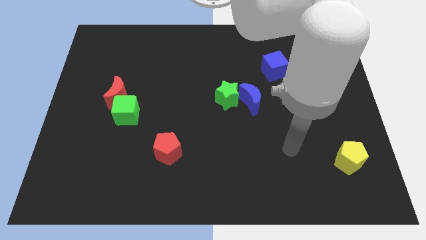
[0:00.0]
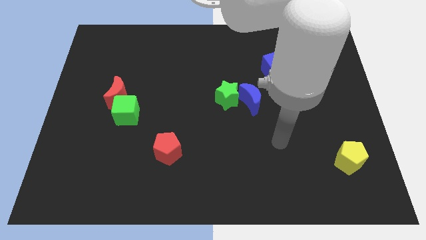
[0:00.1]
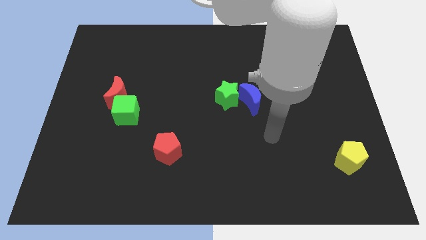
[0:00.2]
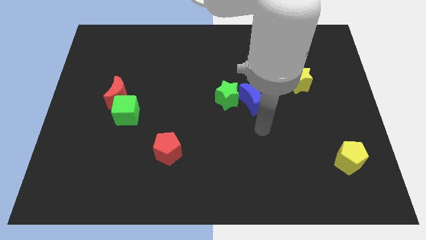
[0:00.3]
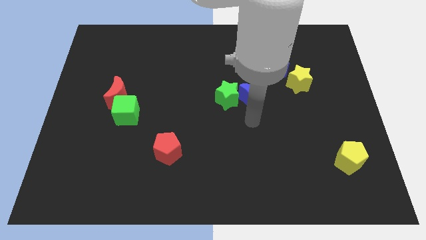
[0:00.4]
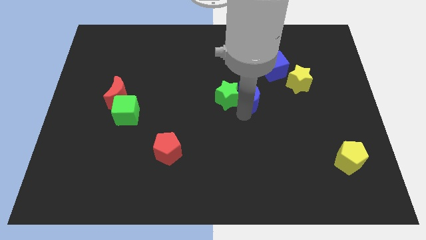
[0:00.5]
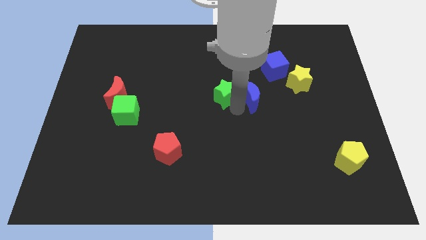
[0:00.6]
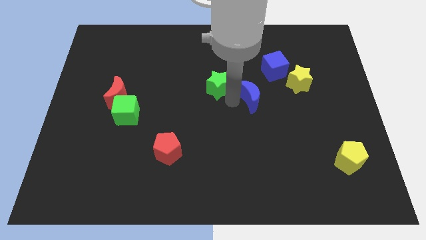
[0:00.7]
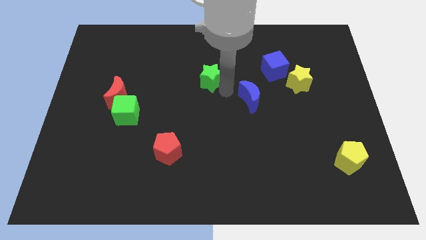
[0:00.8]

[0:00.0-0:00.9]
separate the blue moon from the green star

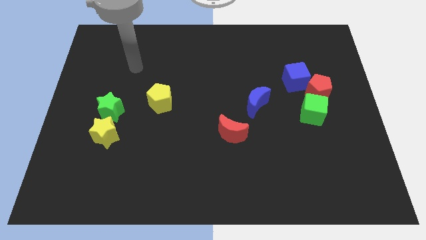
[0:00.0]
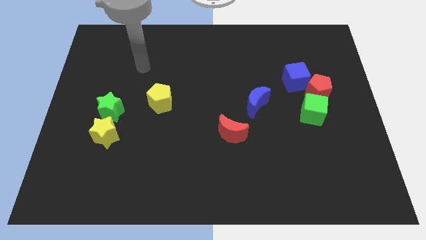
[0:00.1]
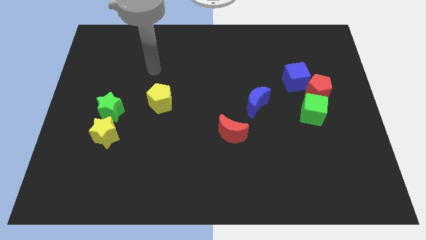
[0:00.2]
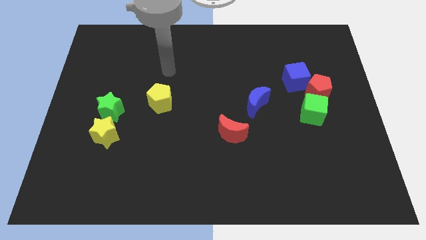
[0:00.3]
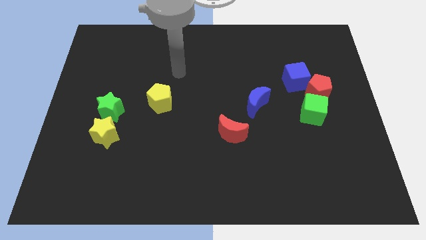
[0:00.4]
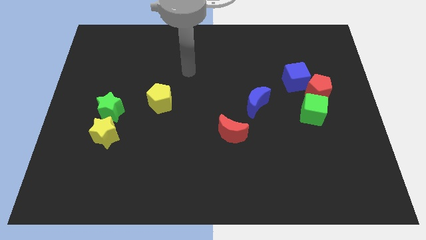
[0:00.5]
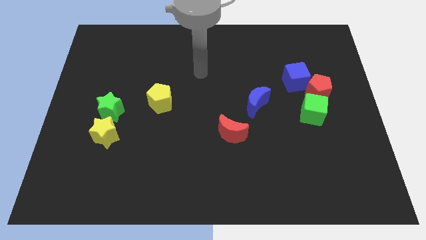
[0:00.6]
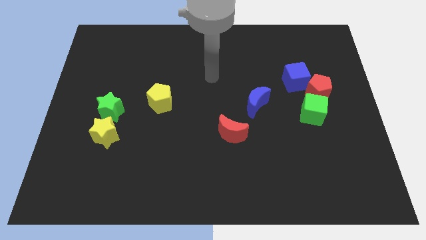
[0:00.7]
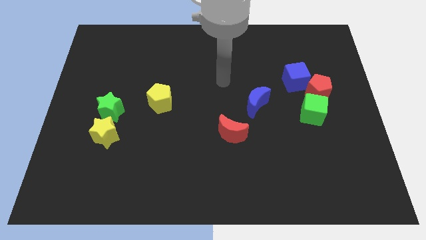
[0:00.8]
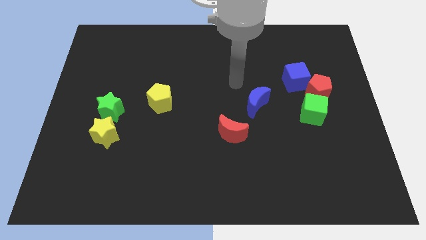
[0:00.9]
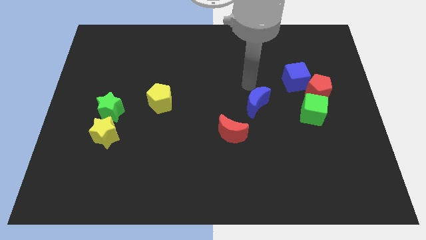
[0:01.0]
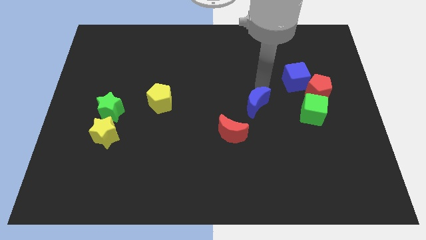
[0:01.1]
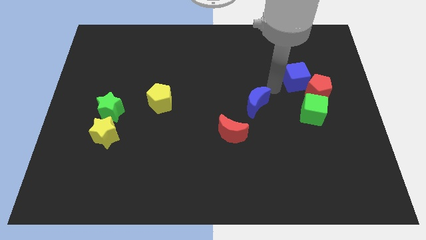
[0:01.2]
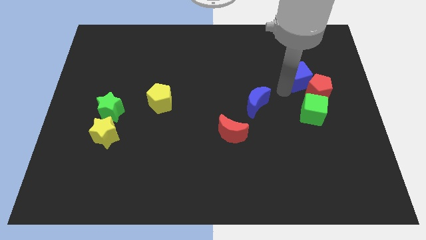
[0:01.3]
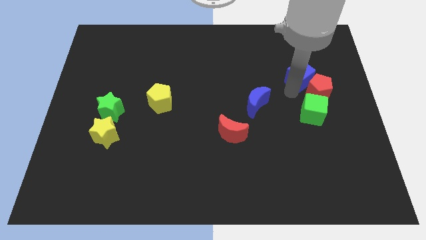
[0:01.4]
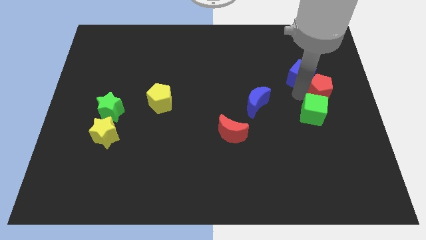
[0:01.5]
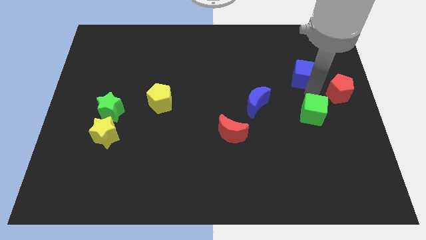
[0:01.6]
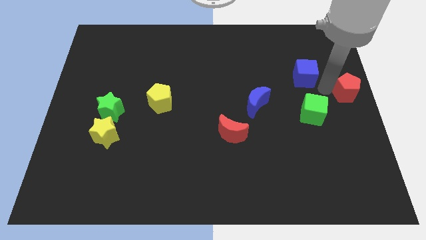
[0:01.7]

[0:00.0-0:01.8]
move the blue cube away from the red pentagon

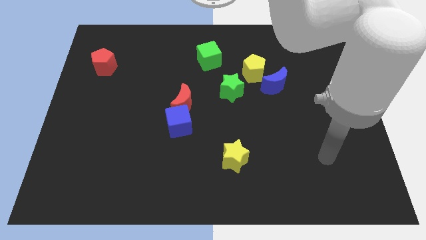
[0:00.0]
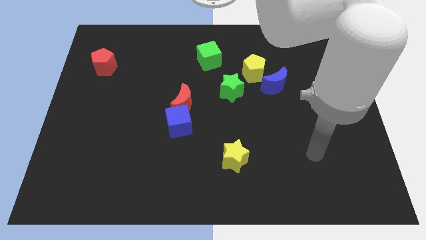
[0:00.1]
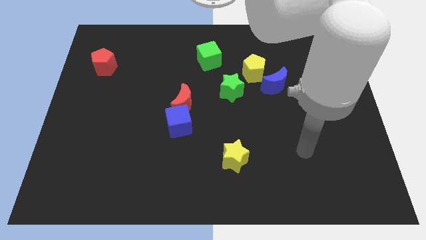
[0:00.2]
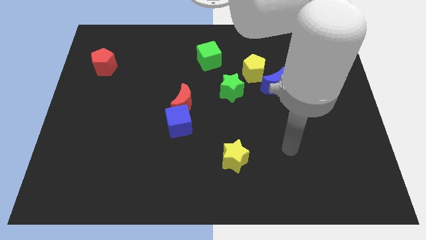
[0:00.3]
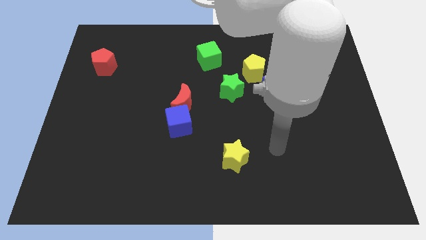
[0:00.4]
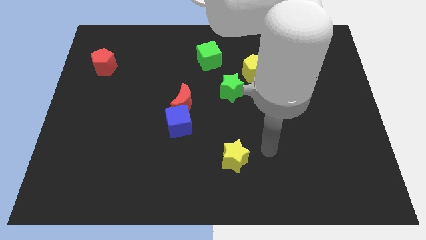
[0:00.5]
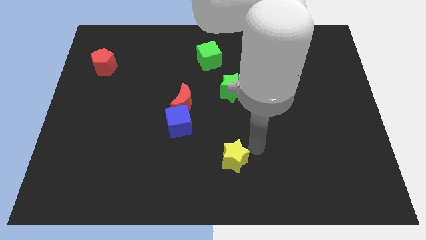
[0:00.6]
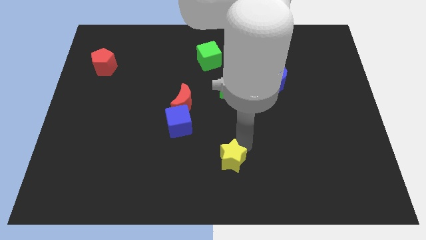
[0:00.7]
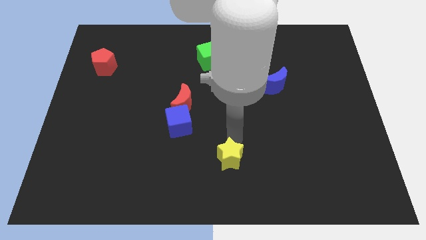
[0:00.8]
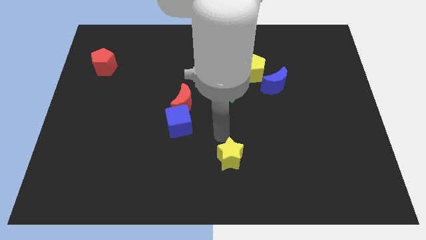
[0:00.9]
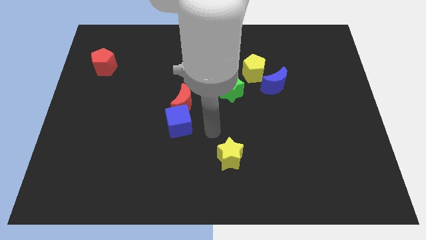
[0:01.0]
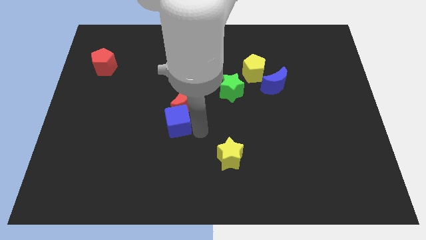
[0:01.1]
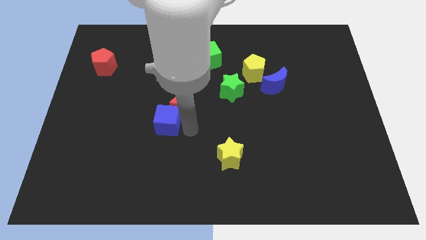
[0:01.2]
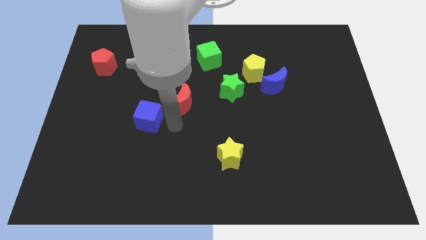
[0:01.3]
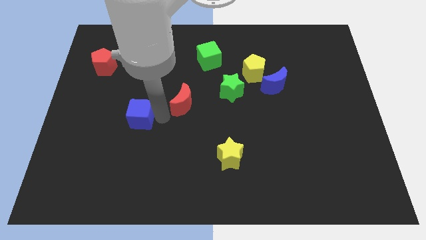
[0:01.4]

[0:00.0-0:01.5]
move the red moon away from the blue cube

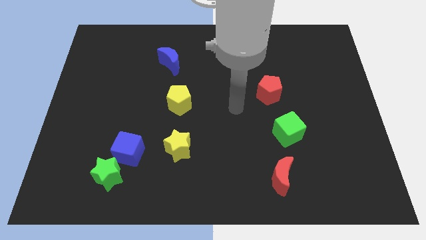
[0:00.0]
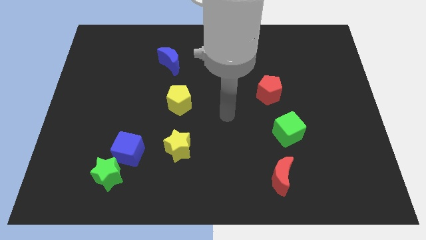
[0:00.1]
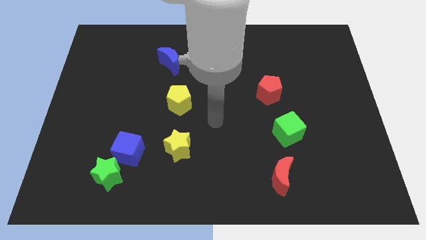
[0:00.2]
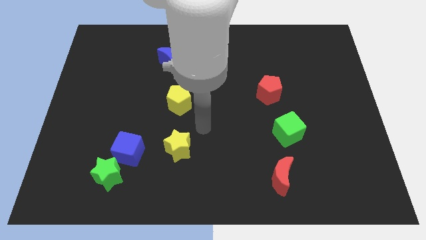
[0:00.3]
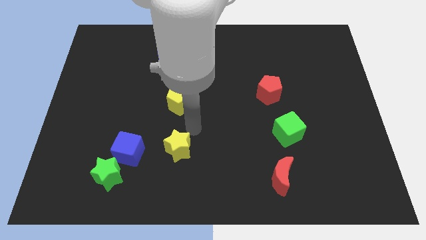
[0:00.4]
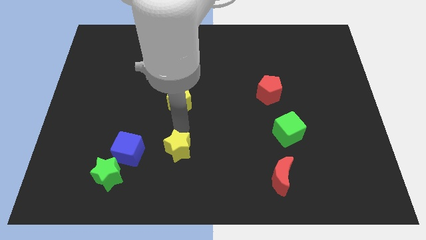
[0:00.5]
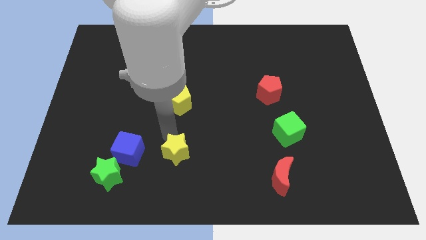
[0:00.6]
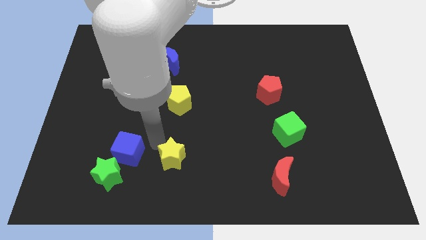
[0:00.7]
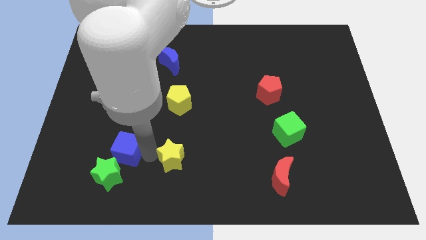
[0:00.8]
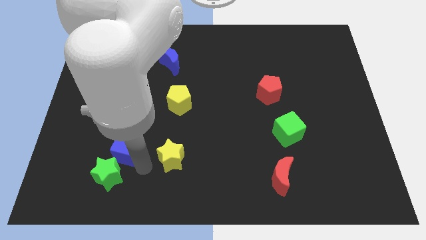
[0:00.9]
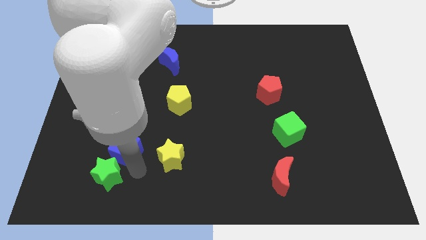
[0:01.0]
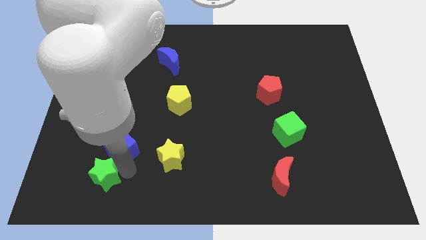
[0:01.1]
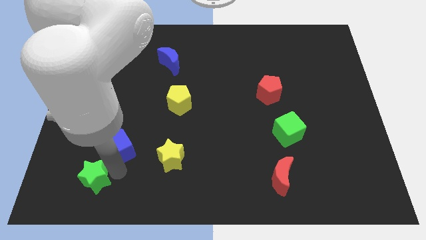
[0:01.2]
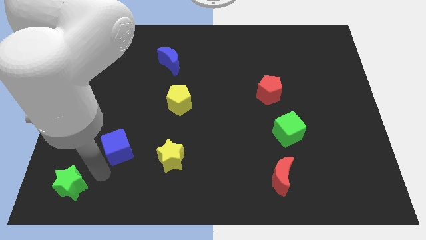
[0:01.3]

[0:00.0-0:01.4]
move the blue cube away from the green star

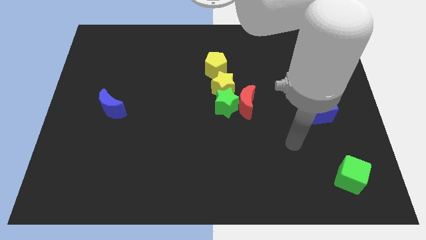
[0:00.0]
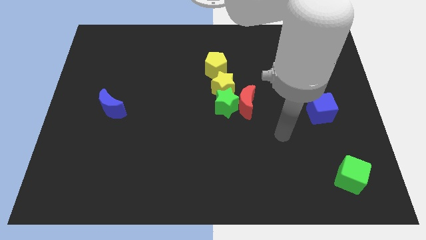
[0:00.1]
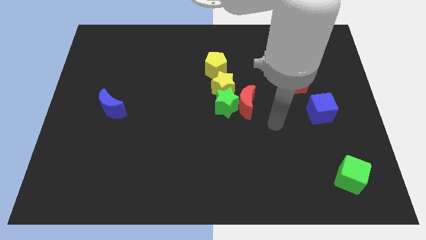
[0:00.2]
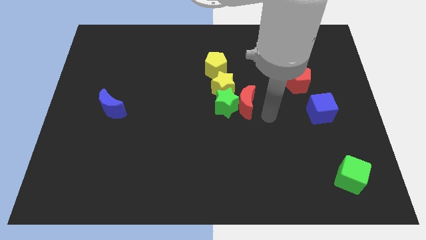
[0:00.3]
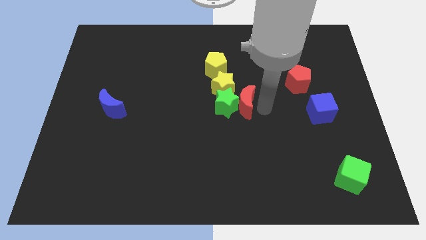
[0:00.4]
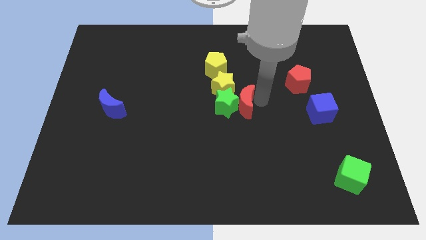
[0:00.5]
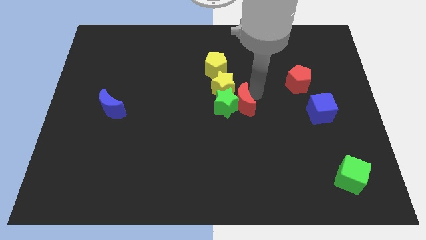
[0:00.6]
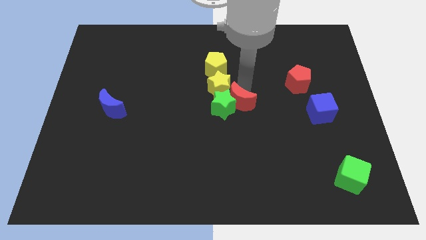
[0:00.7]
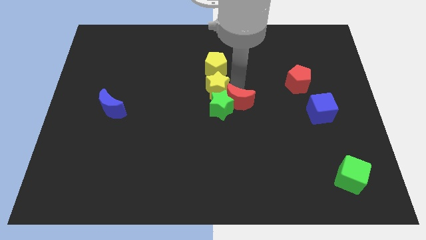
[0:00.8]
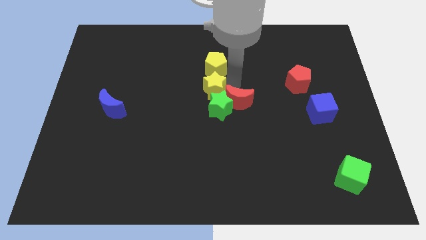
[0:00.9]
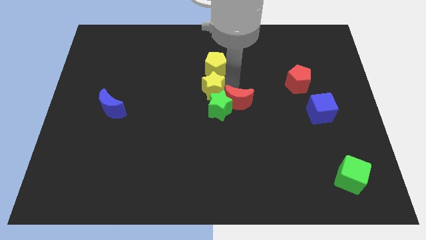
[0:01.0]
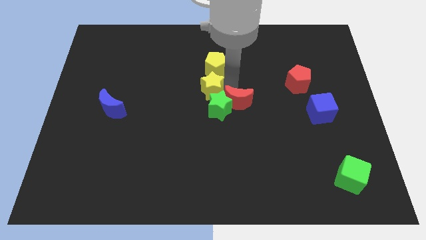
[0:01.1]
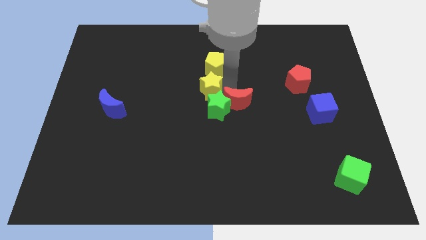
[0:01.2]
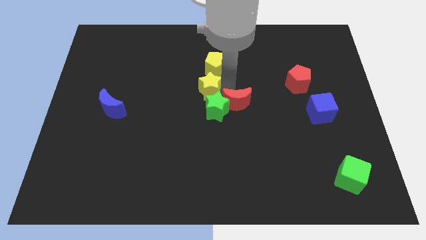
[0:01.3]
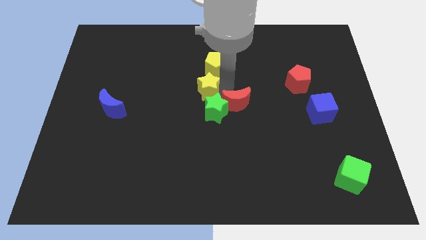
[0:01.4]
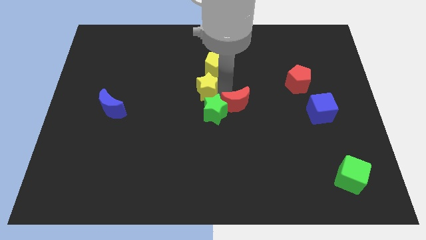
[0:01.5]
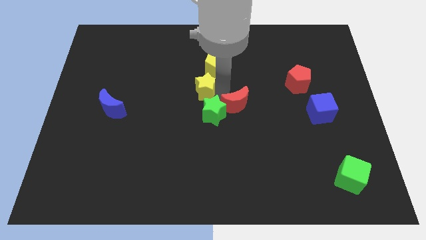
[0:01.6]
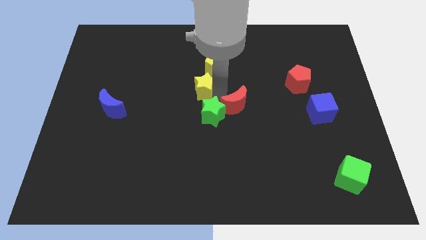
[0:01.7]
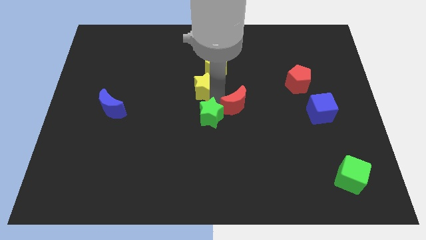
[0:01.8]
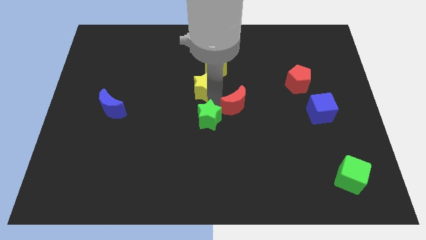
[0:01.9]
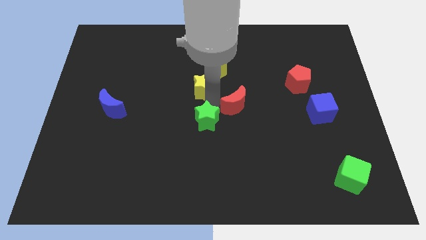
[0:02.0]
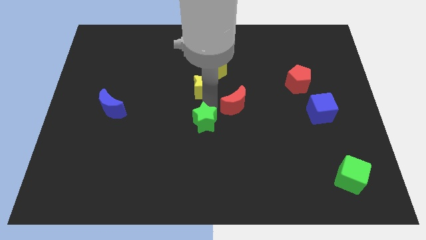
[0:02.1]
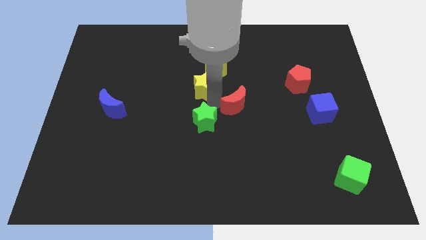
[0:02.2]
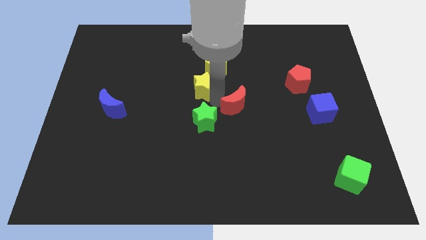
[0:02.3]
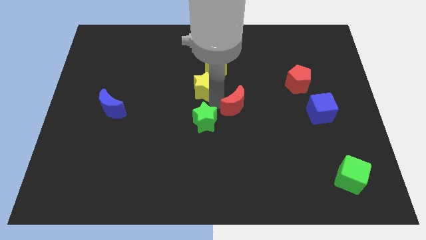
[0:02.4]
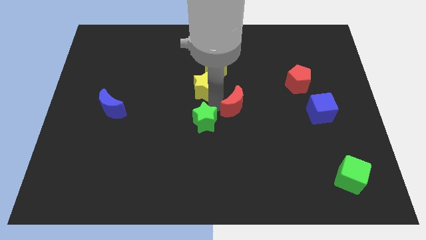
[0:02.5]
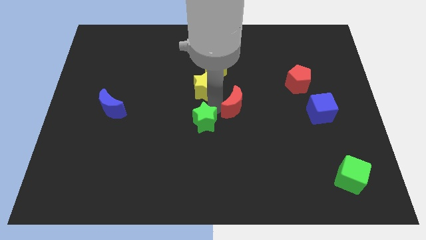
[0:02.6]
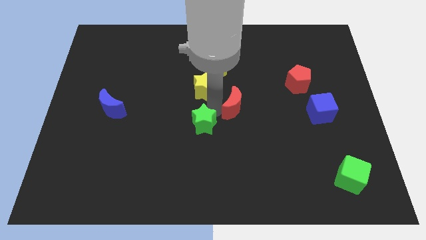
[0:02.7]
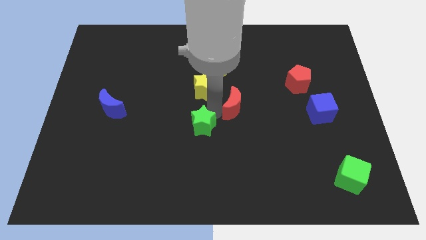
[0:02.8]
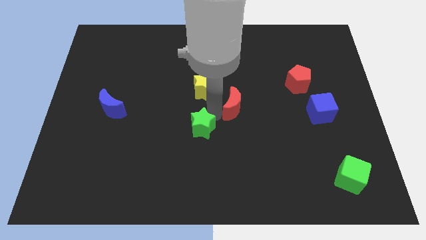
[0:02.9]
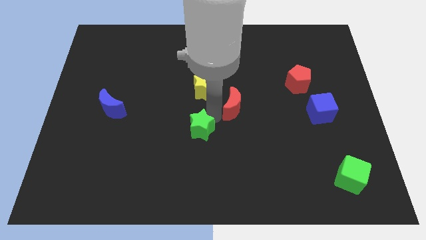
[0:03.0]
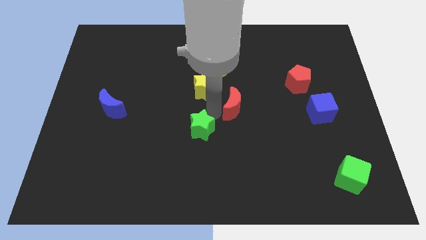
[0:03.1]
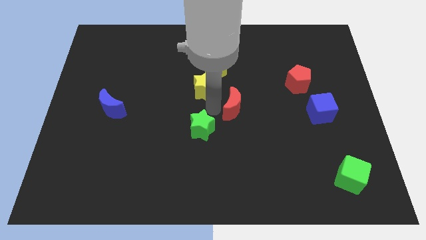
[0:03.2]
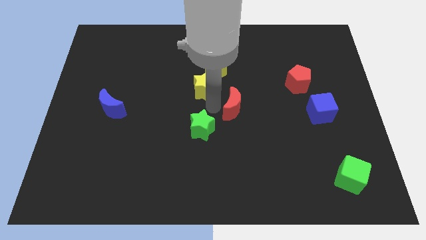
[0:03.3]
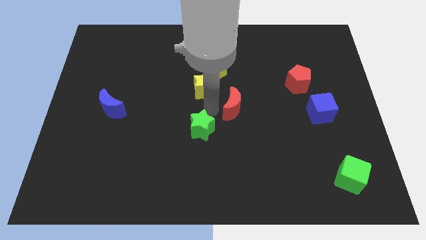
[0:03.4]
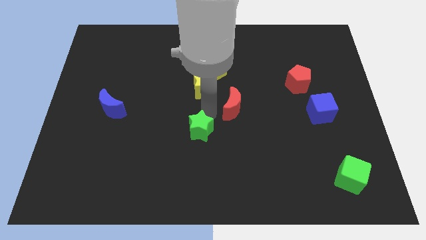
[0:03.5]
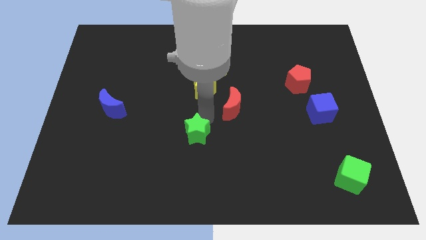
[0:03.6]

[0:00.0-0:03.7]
move the green star away from the yellow star and red moon
